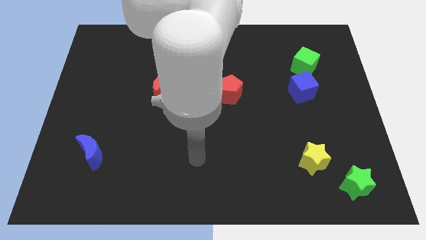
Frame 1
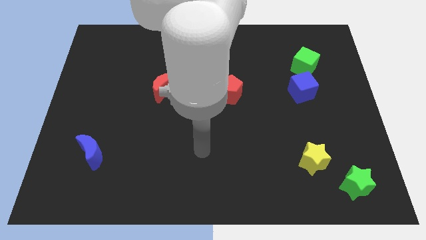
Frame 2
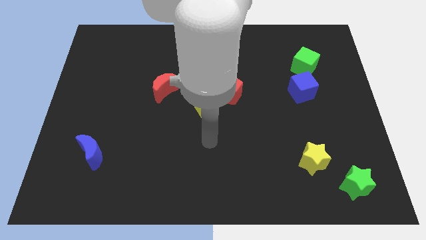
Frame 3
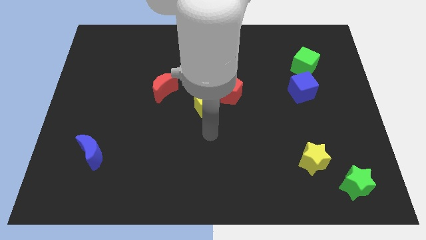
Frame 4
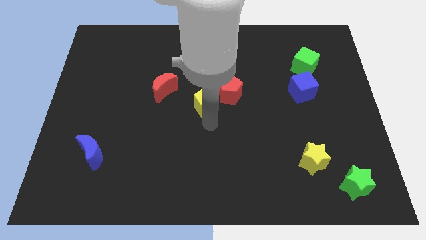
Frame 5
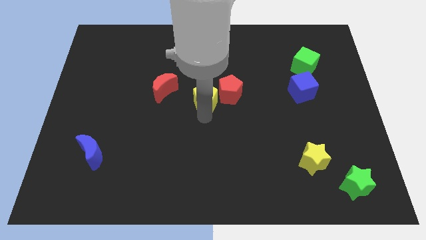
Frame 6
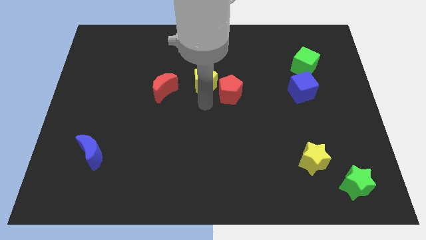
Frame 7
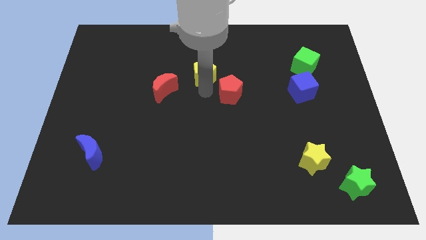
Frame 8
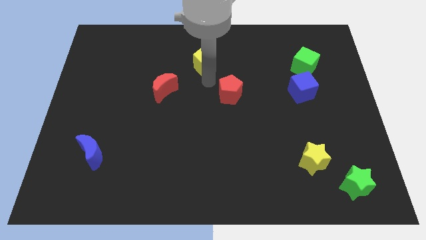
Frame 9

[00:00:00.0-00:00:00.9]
separate the red pentagon from the yellow pentagon

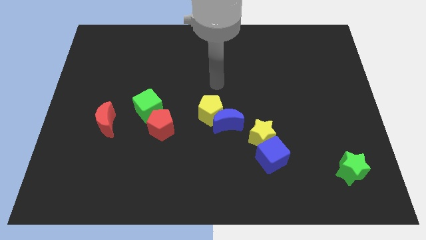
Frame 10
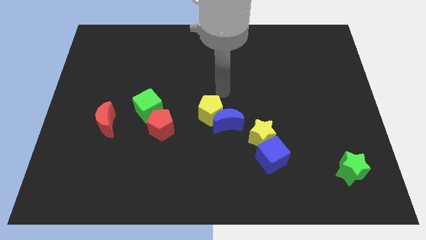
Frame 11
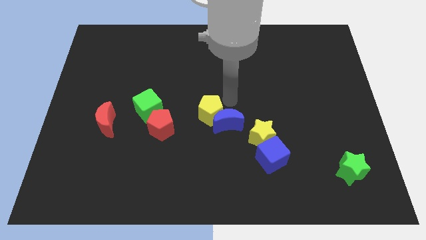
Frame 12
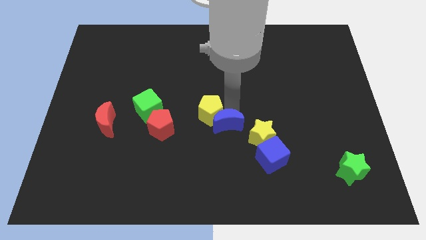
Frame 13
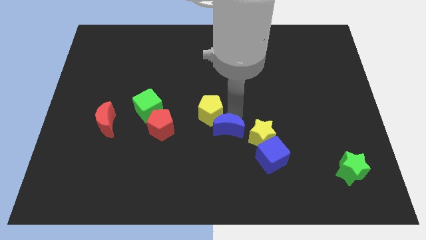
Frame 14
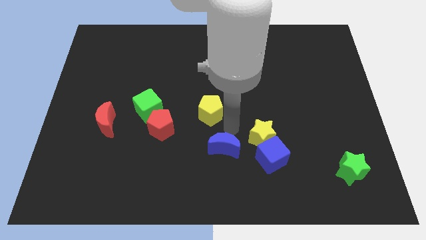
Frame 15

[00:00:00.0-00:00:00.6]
separate the yellow pentagon from the blue moon

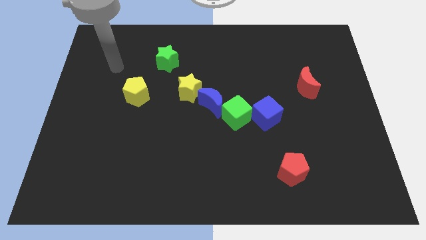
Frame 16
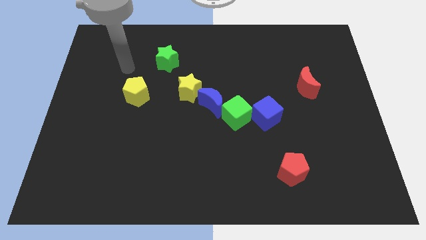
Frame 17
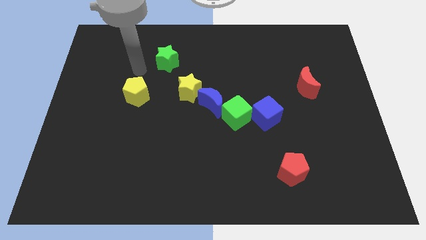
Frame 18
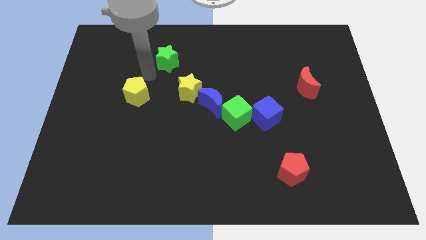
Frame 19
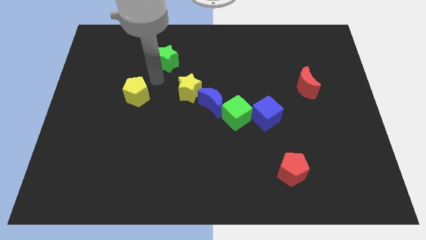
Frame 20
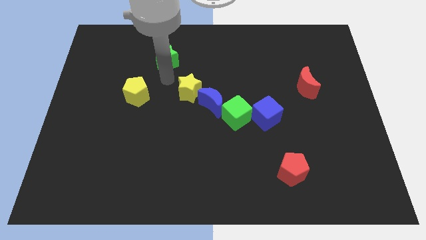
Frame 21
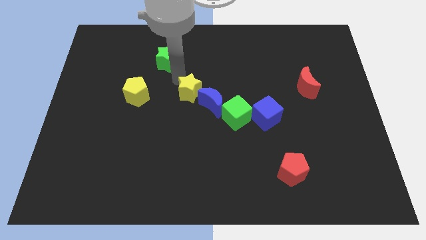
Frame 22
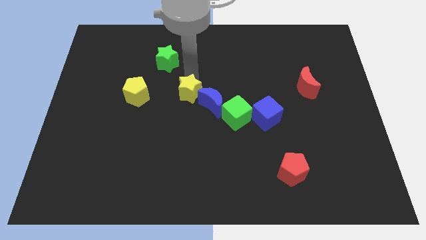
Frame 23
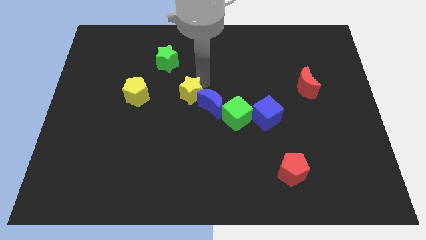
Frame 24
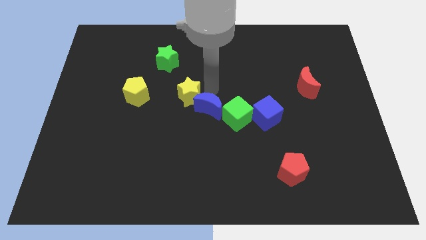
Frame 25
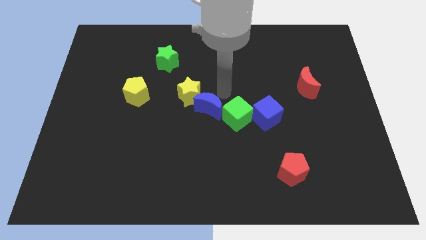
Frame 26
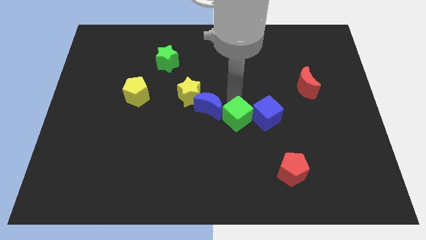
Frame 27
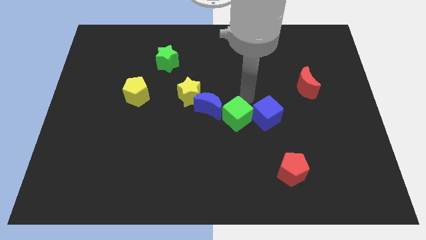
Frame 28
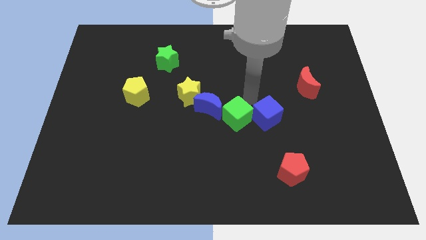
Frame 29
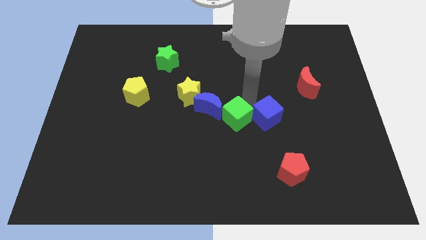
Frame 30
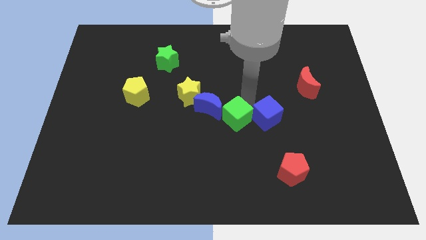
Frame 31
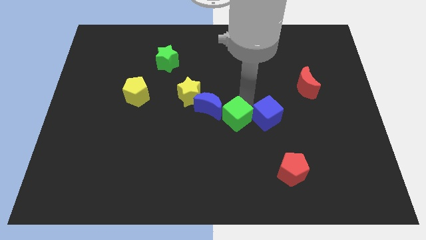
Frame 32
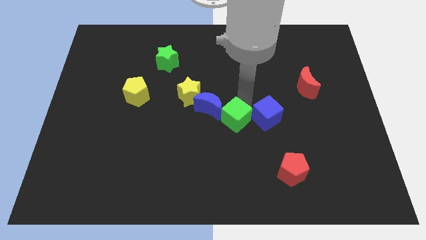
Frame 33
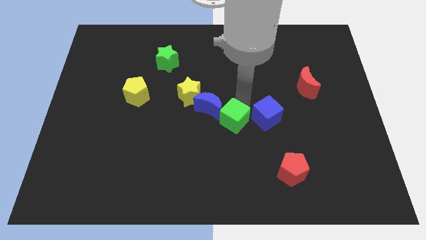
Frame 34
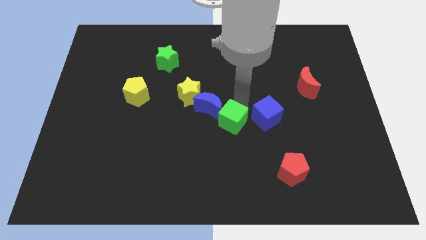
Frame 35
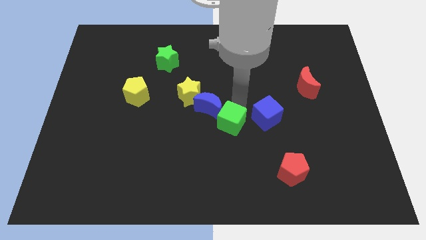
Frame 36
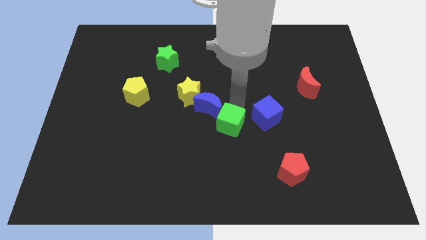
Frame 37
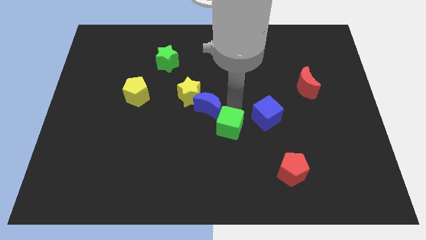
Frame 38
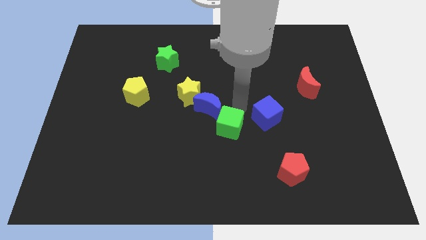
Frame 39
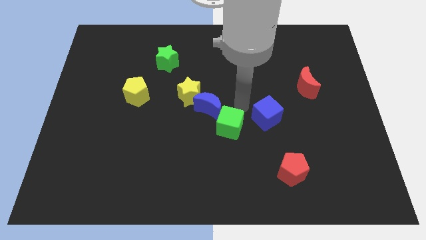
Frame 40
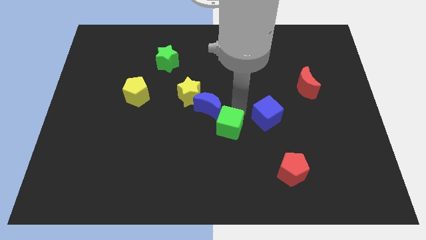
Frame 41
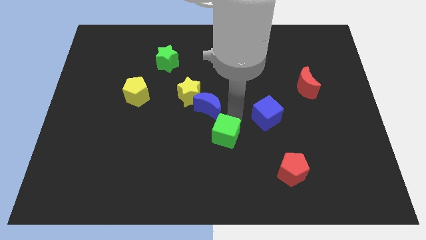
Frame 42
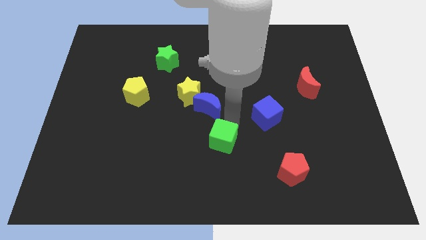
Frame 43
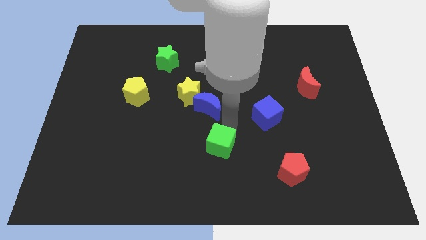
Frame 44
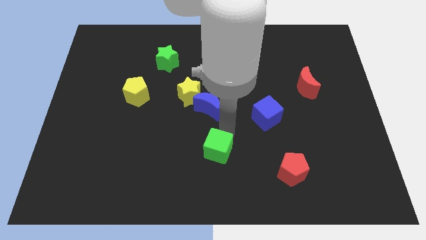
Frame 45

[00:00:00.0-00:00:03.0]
move the green cube away from the blue moon and blue cube

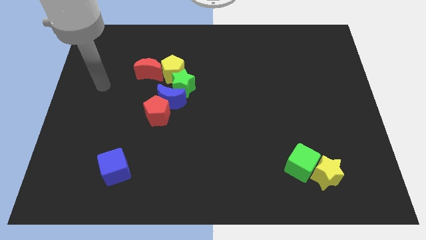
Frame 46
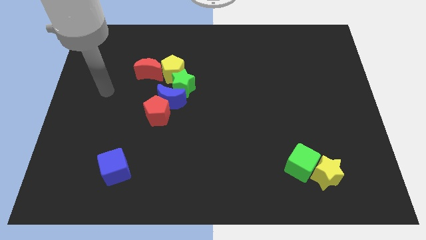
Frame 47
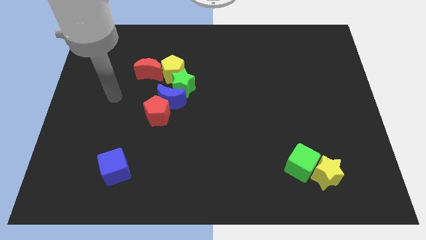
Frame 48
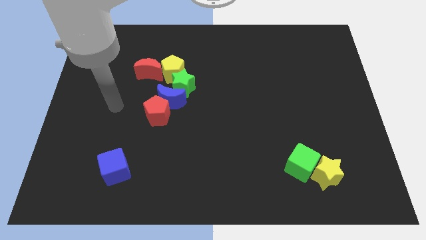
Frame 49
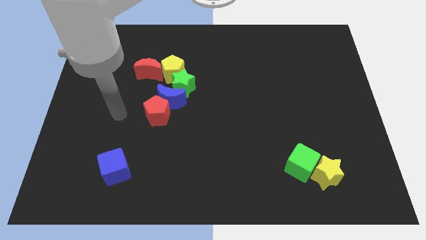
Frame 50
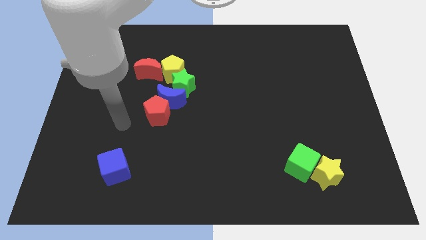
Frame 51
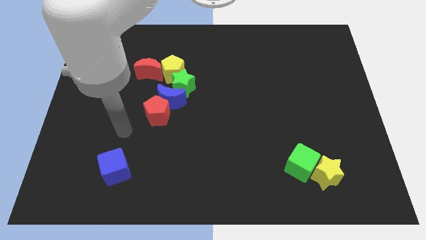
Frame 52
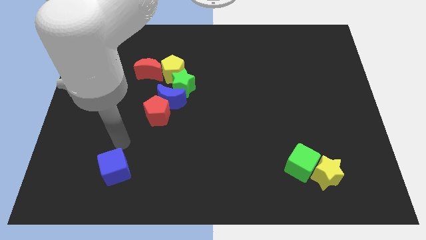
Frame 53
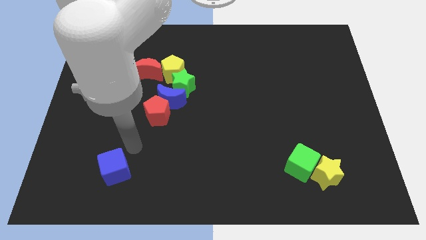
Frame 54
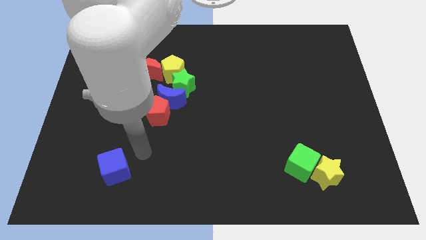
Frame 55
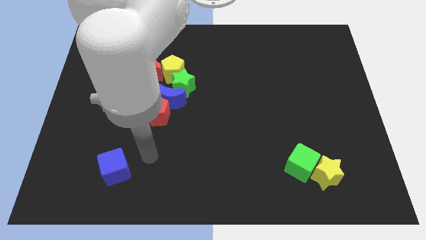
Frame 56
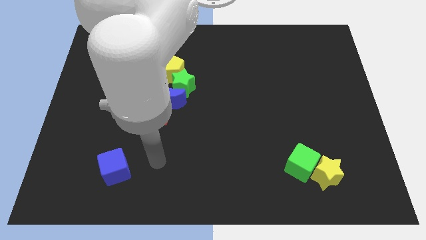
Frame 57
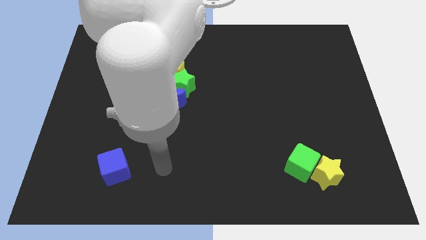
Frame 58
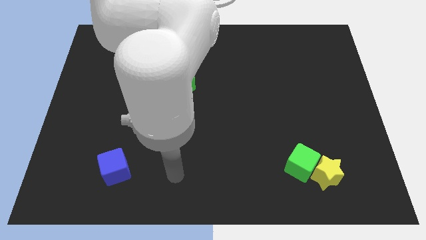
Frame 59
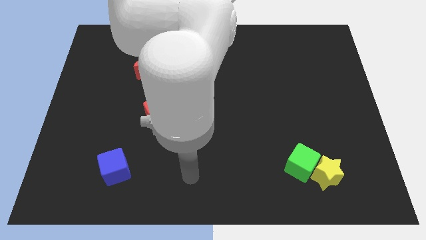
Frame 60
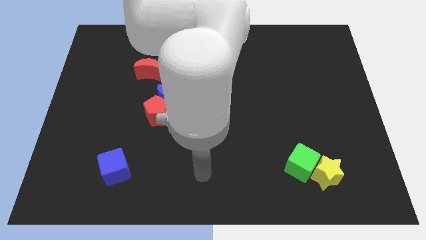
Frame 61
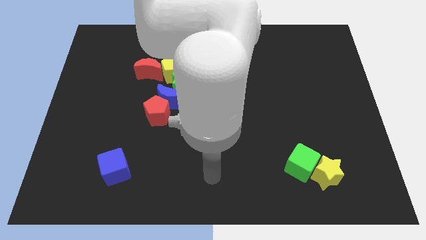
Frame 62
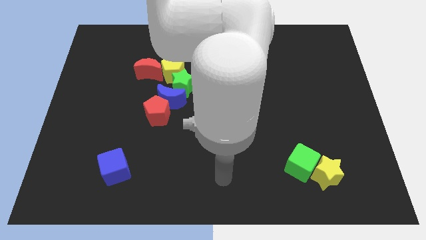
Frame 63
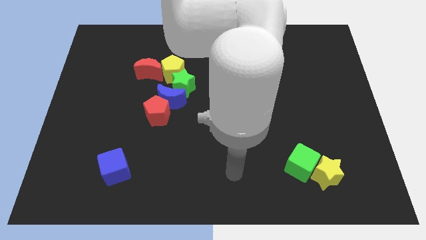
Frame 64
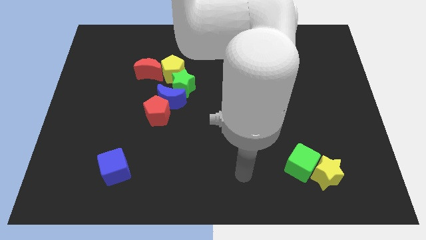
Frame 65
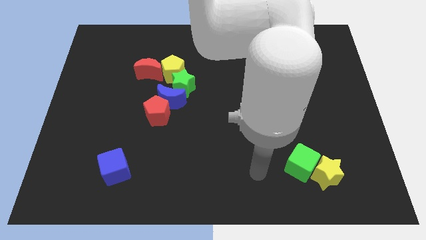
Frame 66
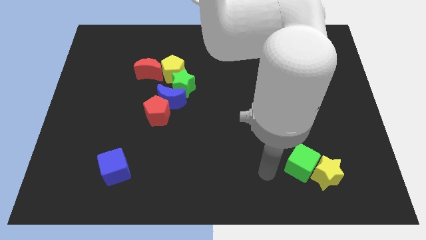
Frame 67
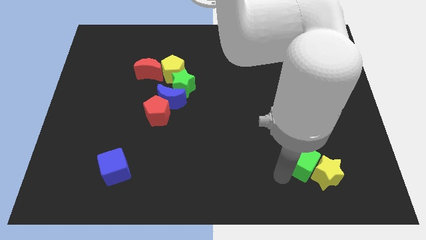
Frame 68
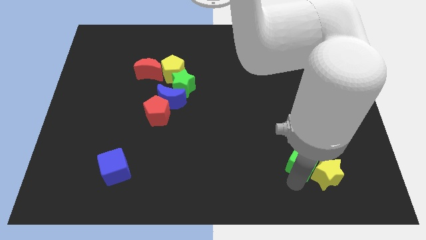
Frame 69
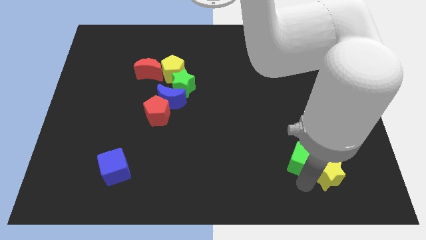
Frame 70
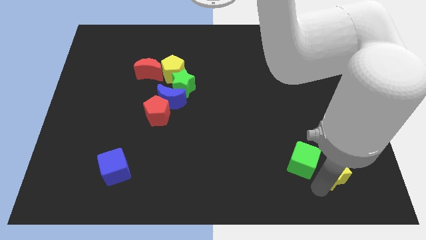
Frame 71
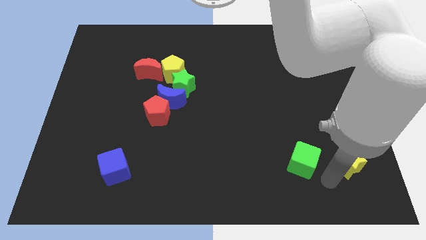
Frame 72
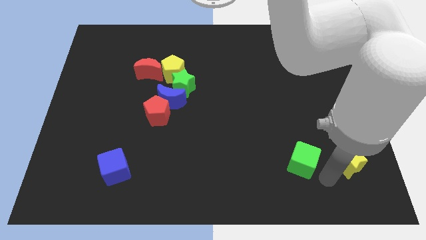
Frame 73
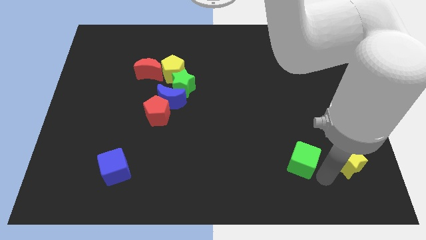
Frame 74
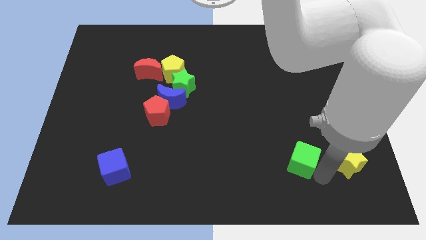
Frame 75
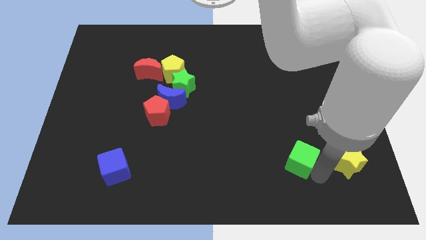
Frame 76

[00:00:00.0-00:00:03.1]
pull the green cube apart from the yellow star

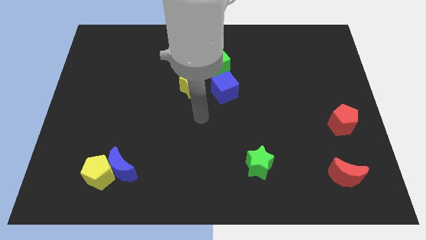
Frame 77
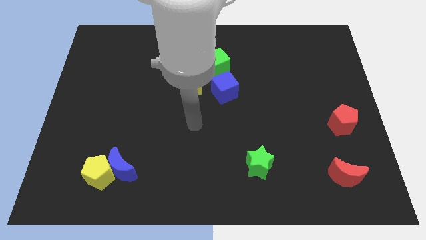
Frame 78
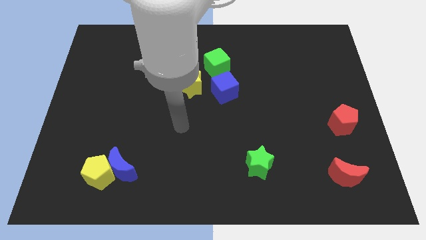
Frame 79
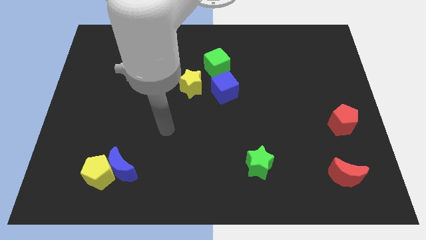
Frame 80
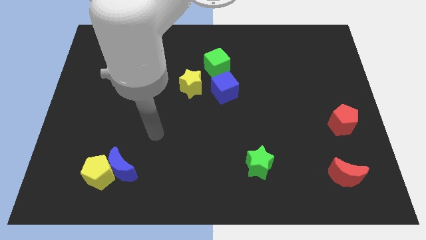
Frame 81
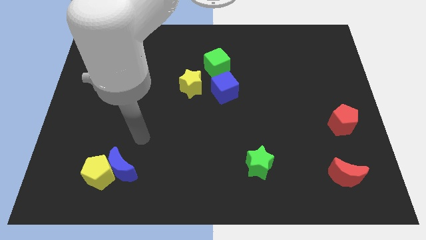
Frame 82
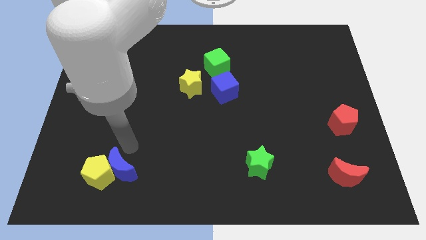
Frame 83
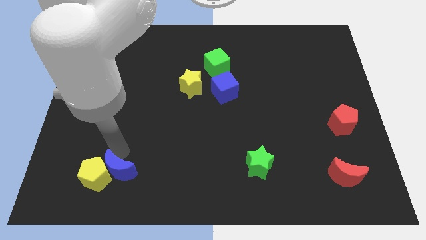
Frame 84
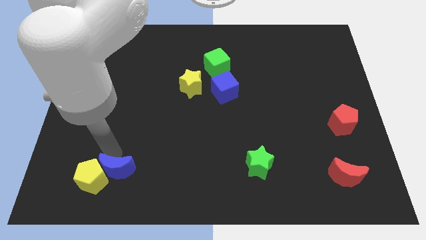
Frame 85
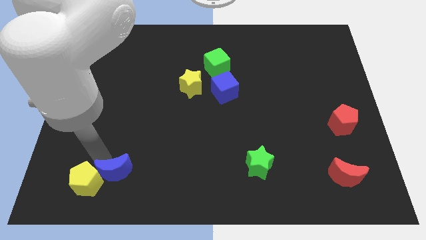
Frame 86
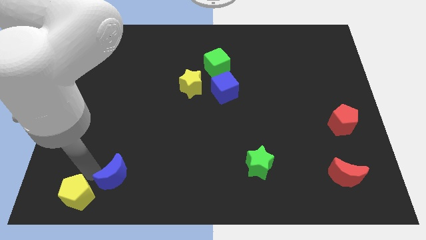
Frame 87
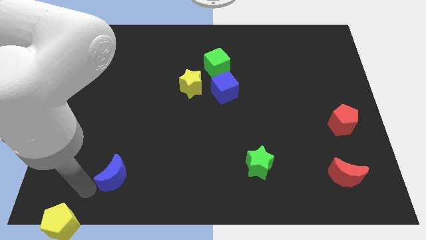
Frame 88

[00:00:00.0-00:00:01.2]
separate the blue moon from the yellow pentagon

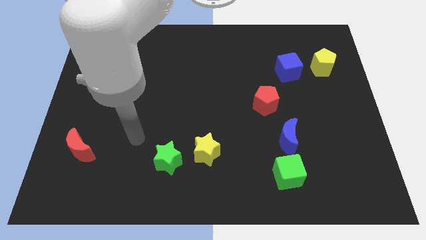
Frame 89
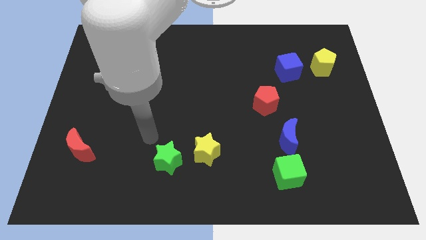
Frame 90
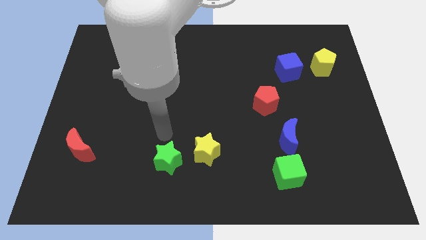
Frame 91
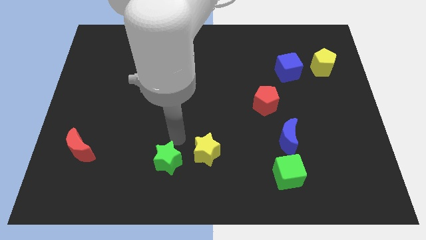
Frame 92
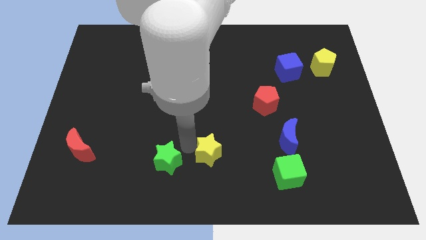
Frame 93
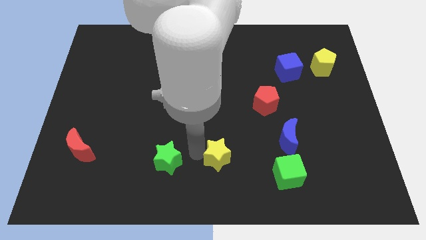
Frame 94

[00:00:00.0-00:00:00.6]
pull the green star apart from the yellow star
